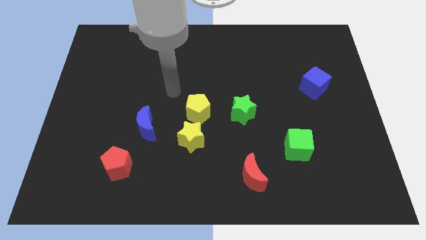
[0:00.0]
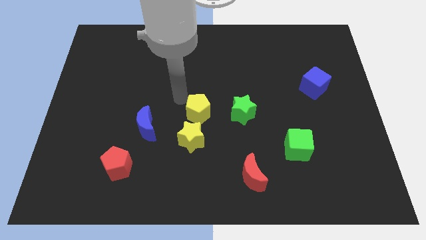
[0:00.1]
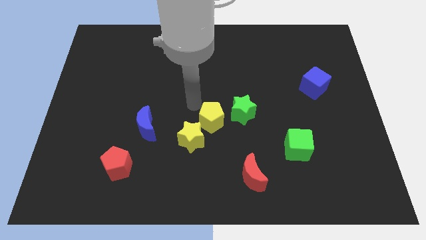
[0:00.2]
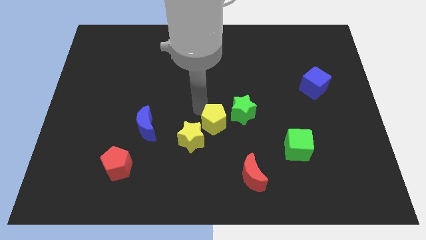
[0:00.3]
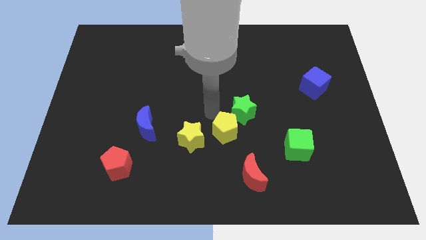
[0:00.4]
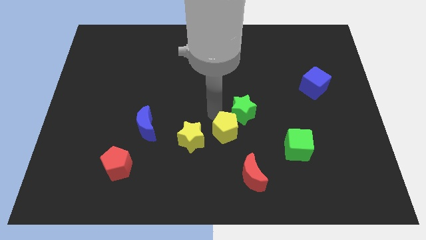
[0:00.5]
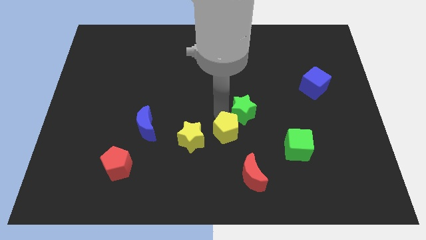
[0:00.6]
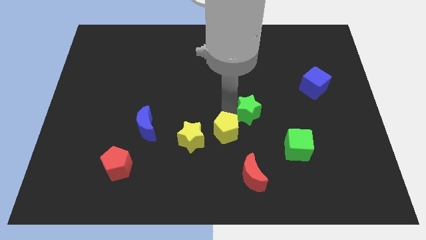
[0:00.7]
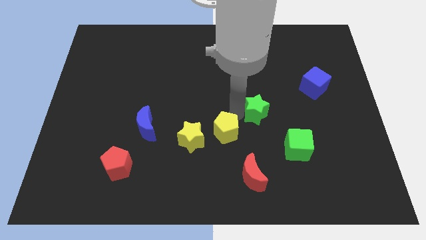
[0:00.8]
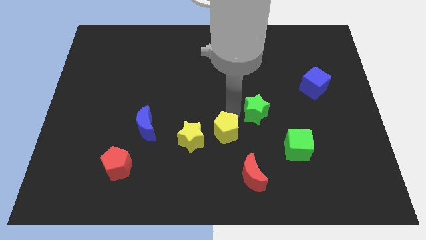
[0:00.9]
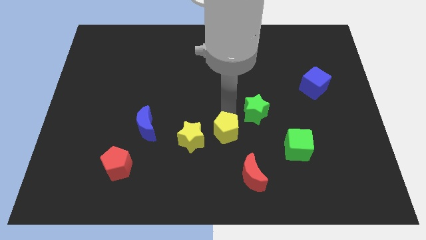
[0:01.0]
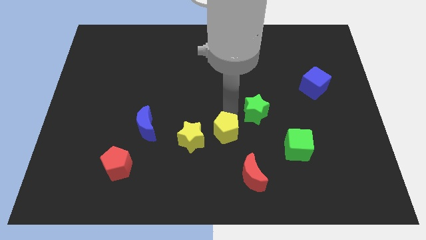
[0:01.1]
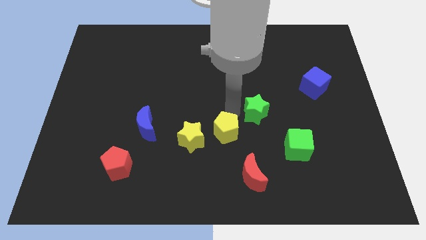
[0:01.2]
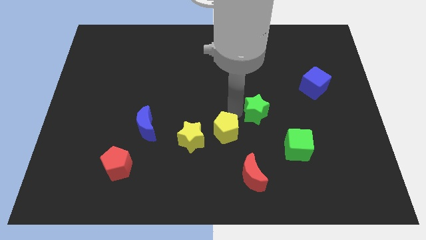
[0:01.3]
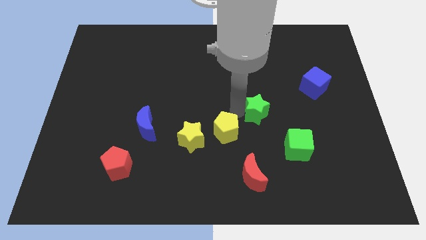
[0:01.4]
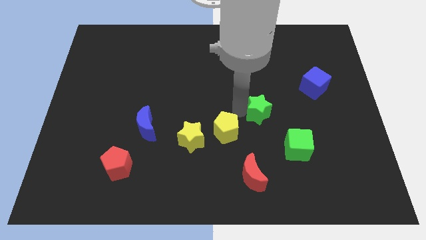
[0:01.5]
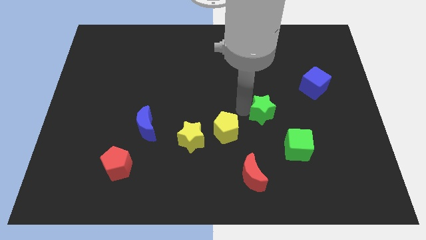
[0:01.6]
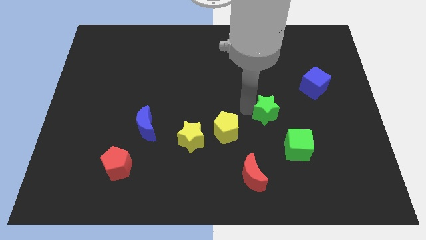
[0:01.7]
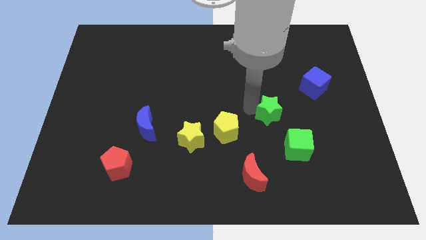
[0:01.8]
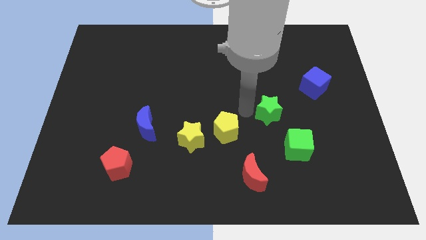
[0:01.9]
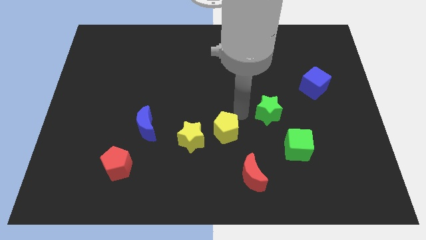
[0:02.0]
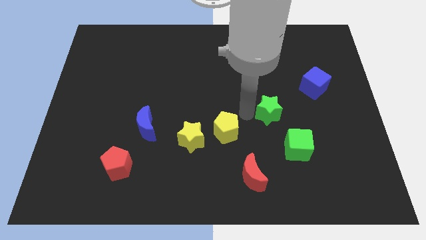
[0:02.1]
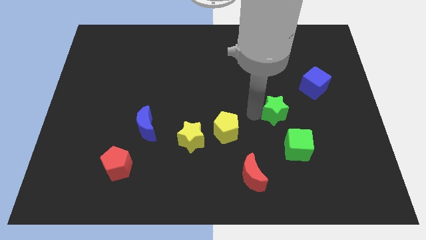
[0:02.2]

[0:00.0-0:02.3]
push the green star a little bit right

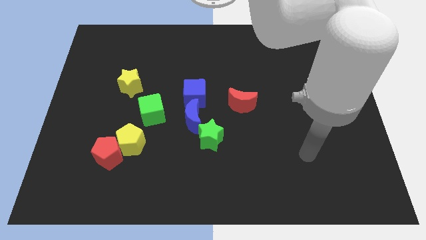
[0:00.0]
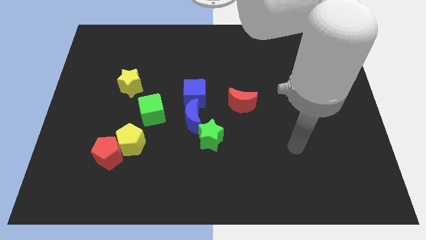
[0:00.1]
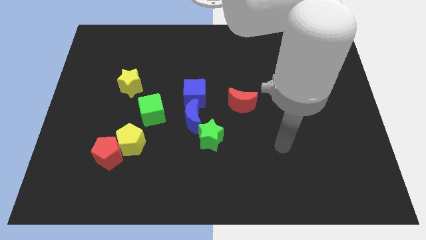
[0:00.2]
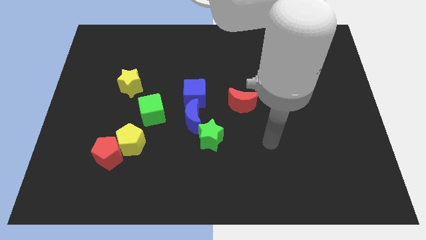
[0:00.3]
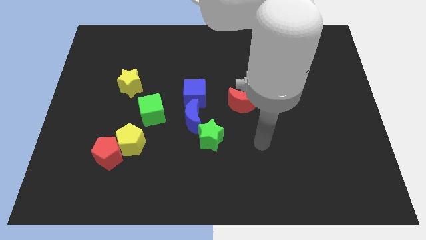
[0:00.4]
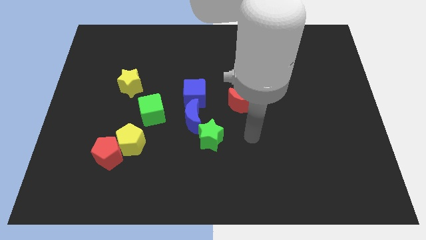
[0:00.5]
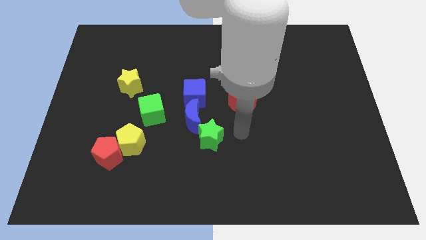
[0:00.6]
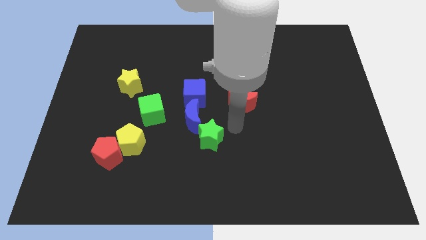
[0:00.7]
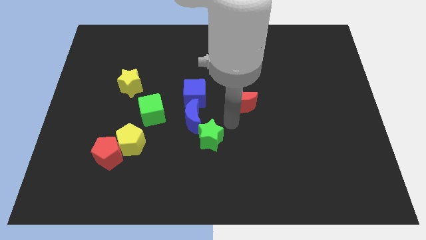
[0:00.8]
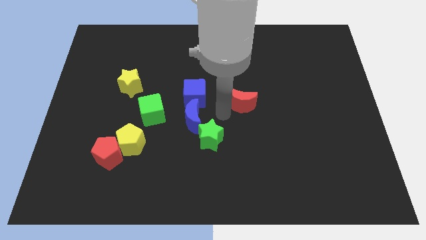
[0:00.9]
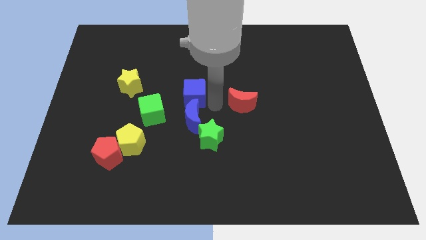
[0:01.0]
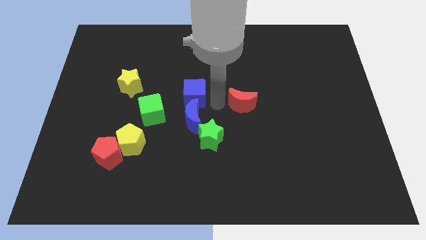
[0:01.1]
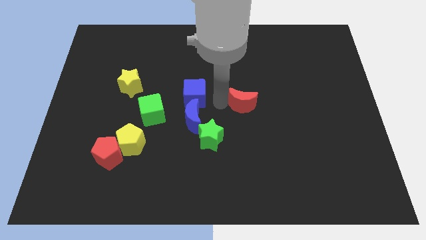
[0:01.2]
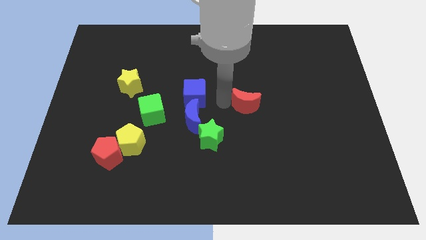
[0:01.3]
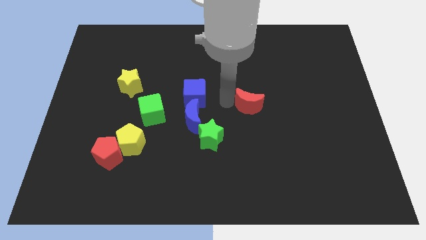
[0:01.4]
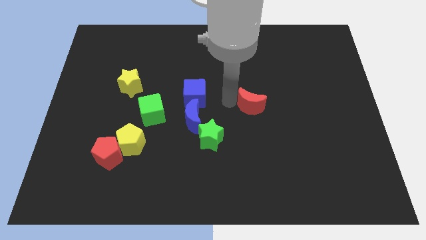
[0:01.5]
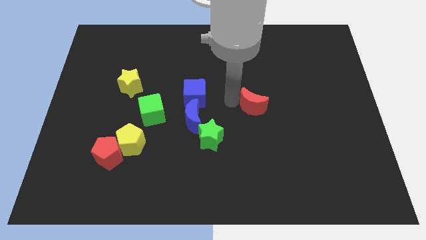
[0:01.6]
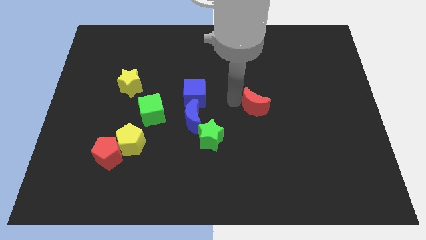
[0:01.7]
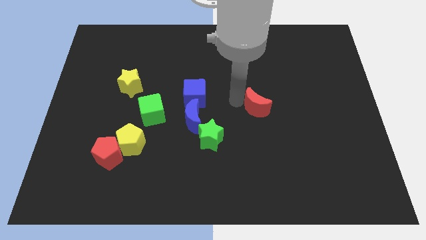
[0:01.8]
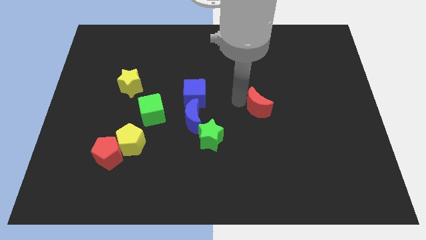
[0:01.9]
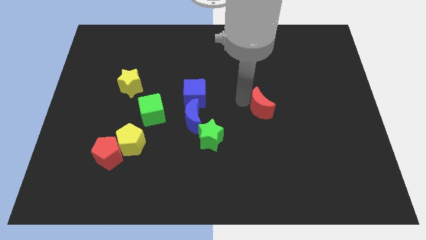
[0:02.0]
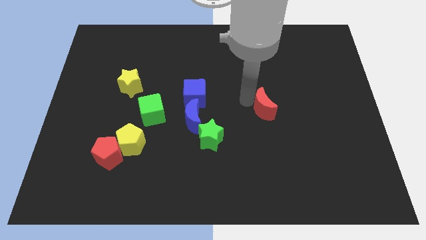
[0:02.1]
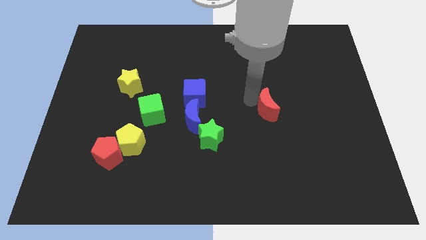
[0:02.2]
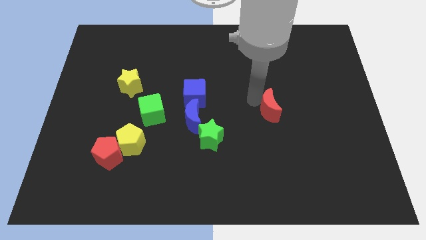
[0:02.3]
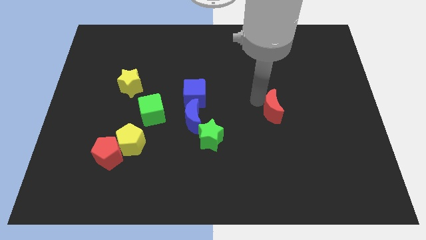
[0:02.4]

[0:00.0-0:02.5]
move the red moon a bit to the right

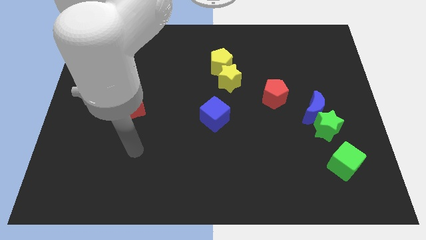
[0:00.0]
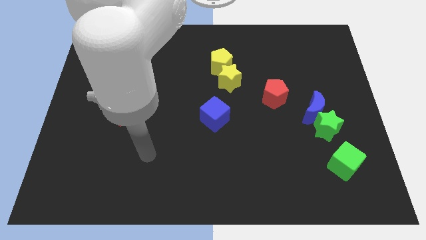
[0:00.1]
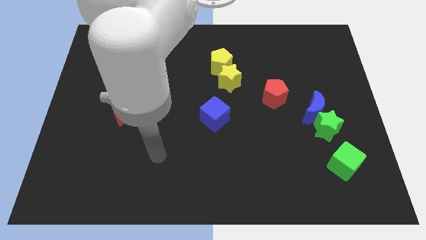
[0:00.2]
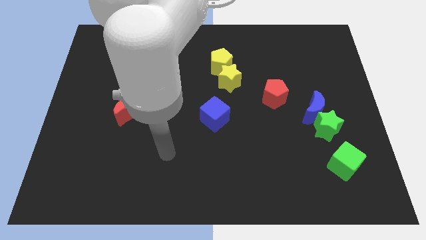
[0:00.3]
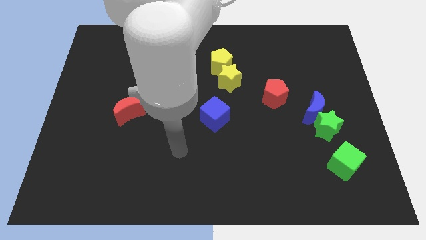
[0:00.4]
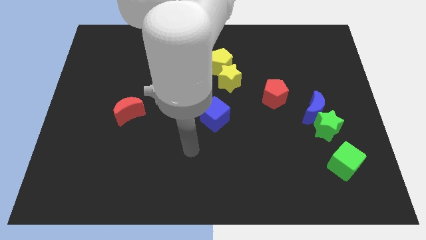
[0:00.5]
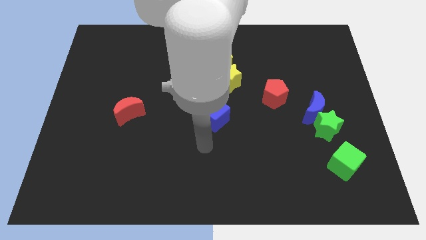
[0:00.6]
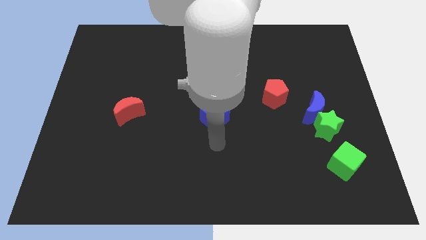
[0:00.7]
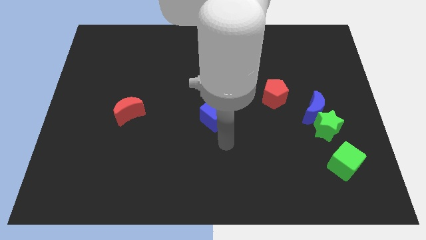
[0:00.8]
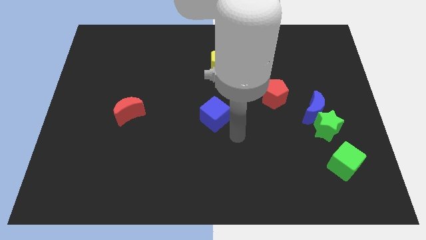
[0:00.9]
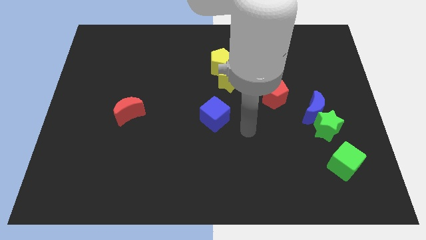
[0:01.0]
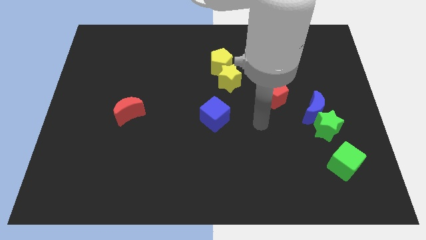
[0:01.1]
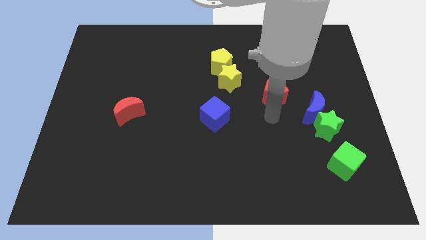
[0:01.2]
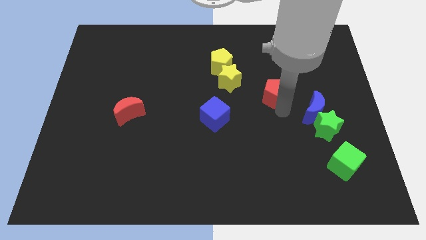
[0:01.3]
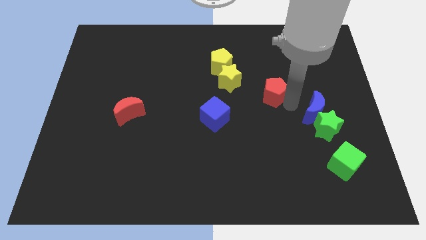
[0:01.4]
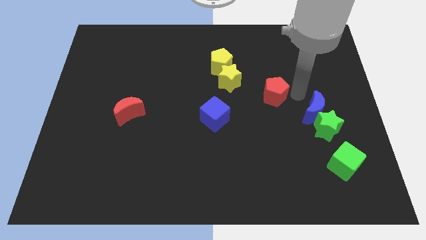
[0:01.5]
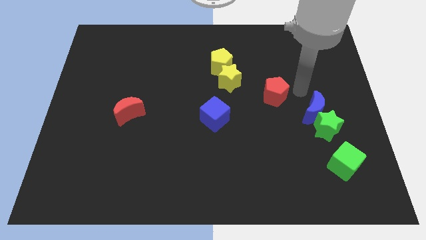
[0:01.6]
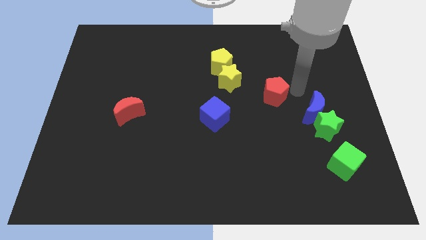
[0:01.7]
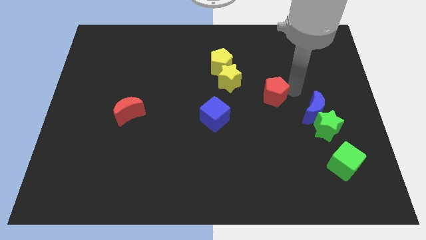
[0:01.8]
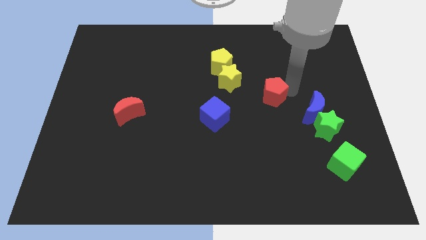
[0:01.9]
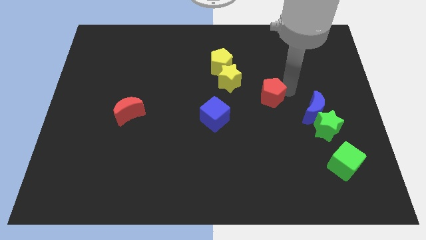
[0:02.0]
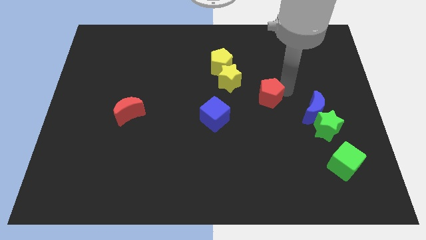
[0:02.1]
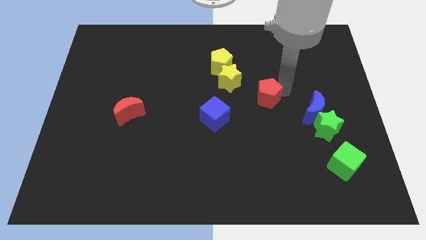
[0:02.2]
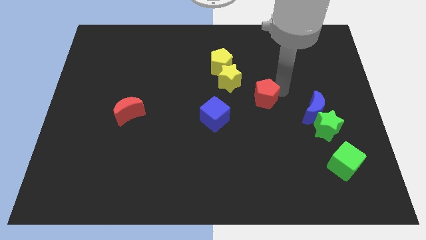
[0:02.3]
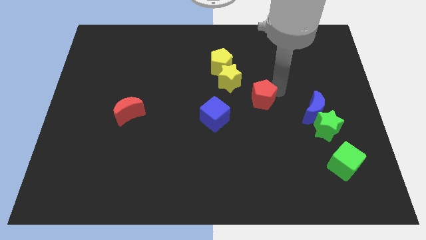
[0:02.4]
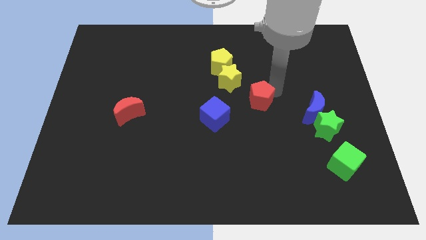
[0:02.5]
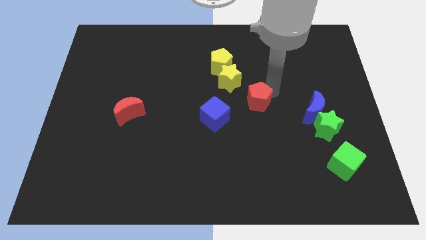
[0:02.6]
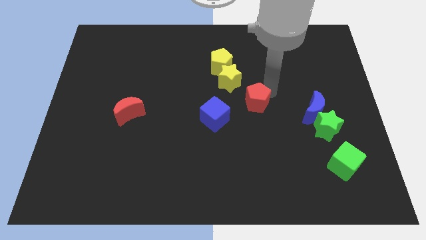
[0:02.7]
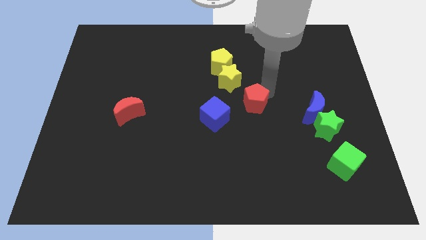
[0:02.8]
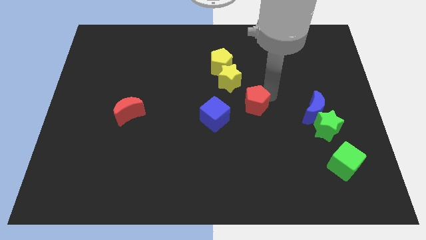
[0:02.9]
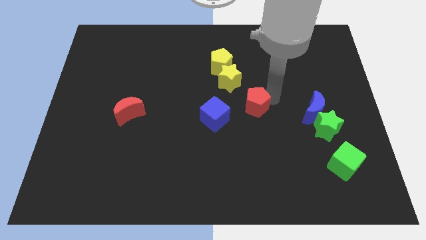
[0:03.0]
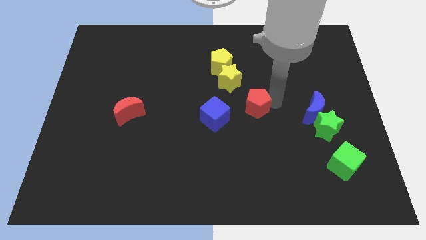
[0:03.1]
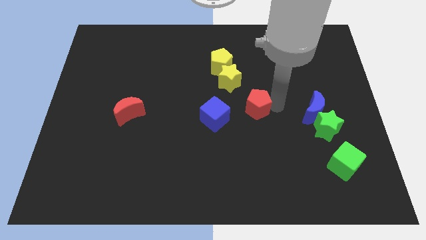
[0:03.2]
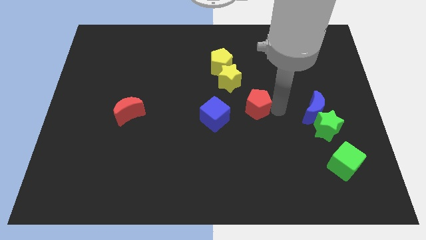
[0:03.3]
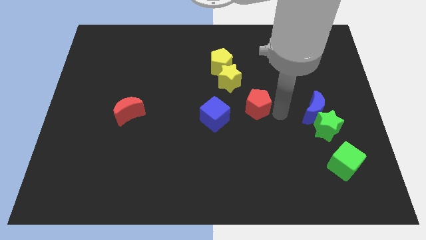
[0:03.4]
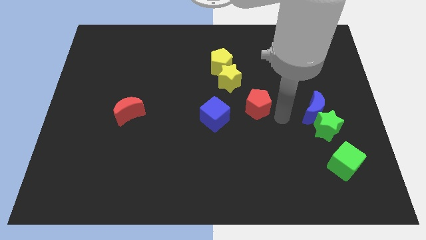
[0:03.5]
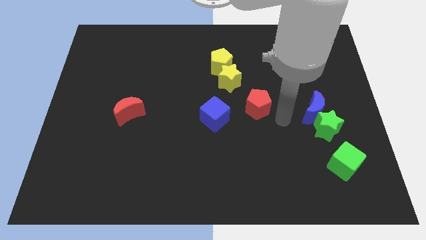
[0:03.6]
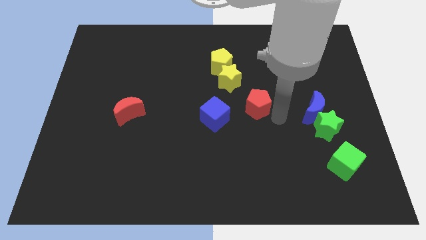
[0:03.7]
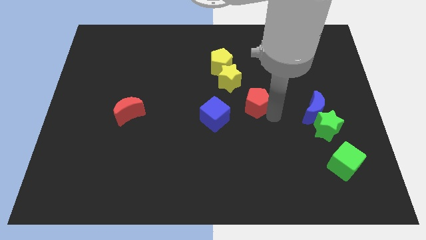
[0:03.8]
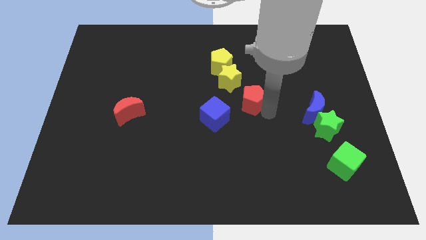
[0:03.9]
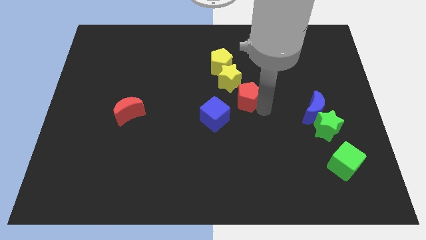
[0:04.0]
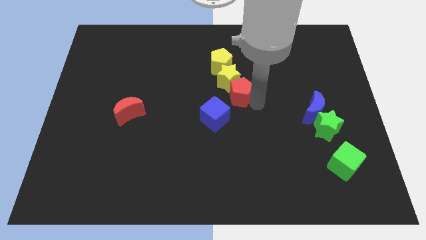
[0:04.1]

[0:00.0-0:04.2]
slightly push the red pentagon to the left
